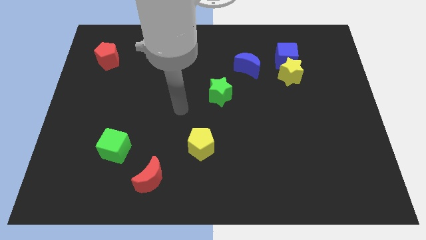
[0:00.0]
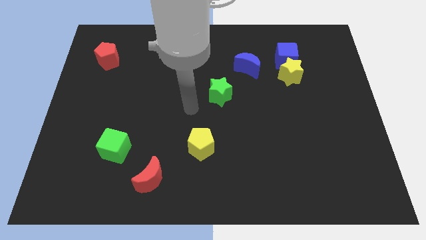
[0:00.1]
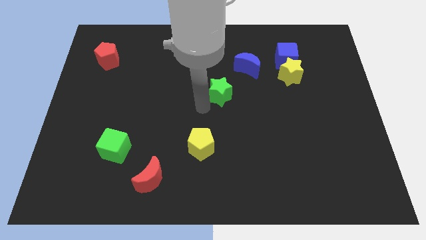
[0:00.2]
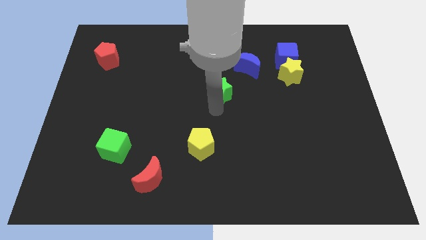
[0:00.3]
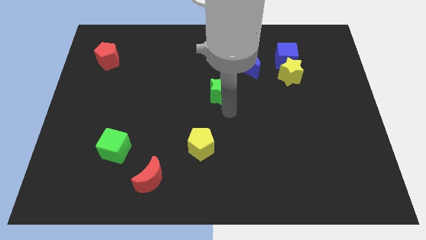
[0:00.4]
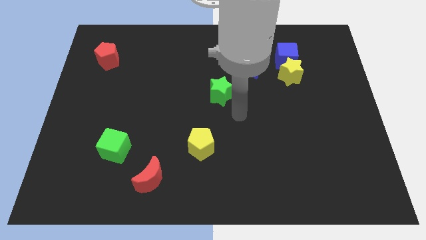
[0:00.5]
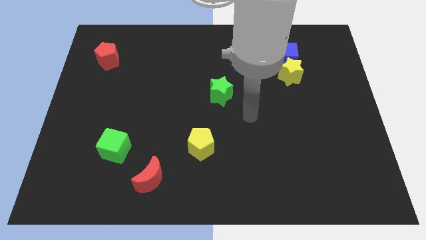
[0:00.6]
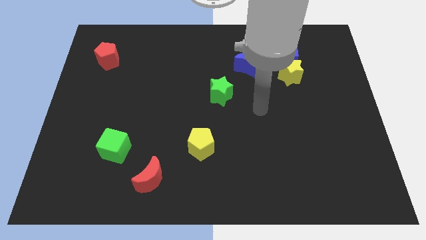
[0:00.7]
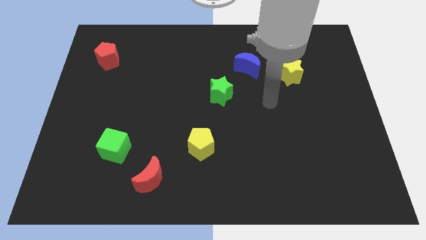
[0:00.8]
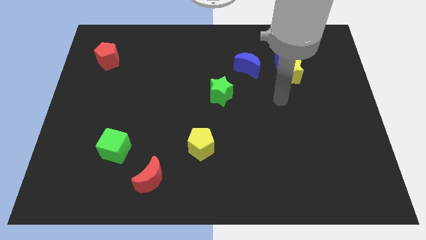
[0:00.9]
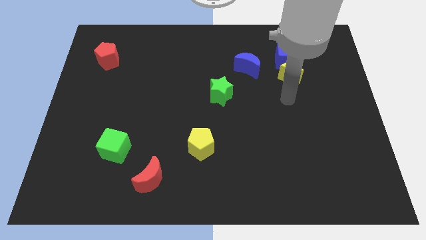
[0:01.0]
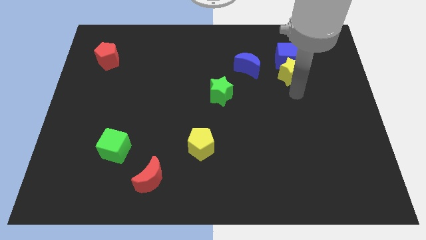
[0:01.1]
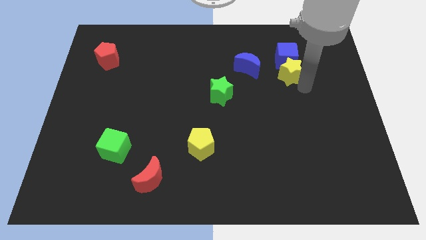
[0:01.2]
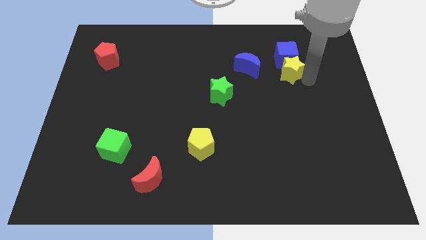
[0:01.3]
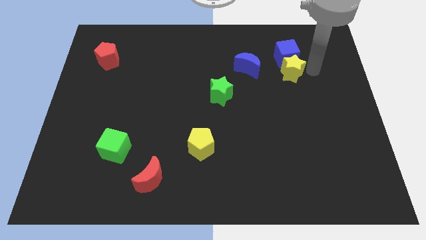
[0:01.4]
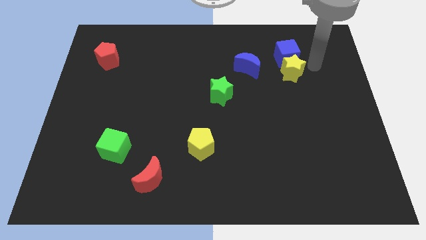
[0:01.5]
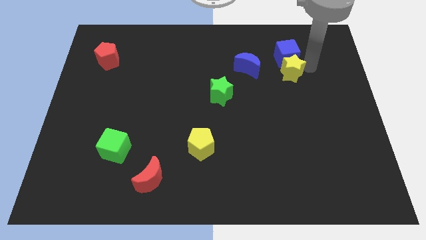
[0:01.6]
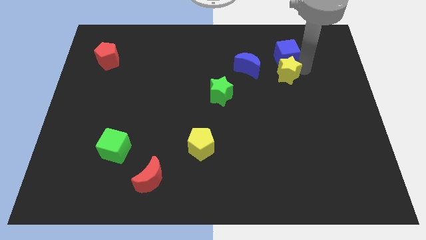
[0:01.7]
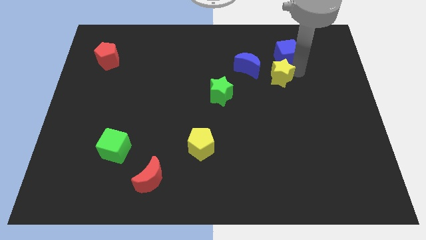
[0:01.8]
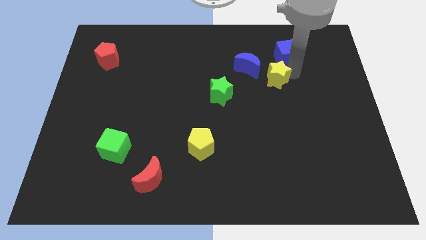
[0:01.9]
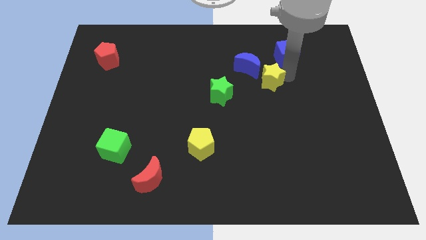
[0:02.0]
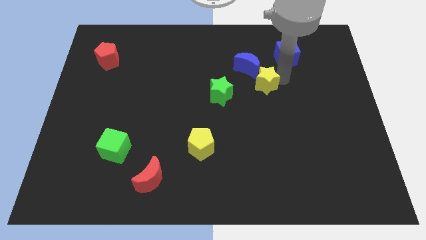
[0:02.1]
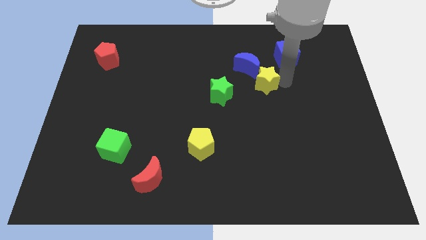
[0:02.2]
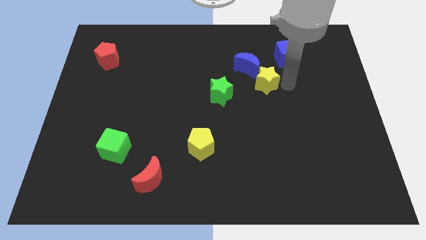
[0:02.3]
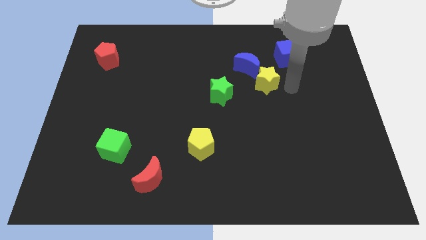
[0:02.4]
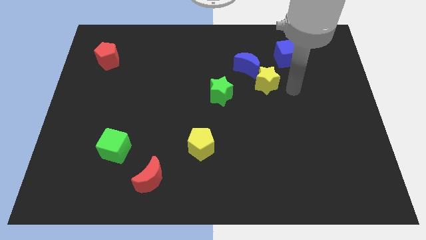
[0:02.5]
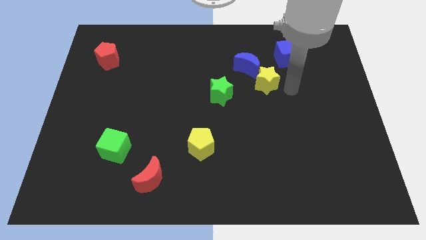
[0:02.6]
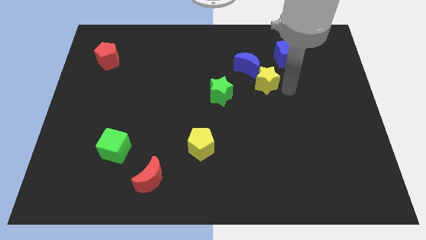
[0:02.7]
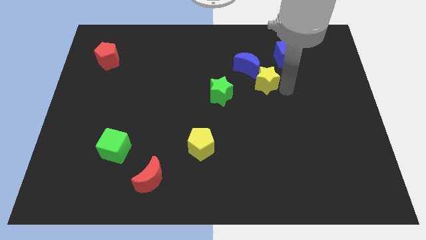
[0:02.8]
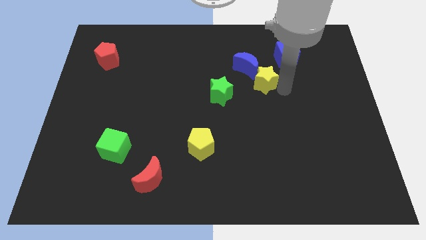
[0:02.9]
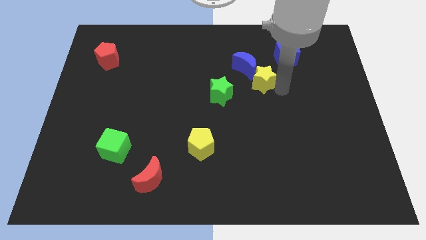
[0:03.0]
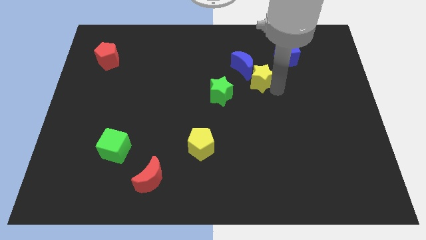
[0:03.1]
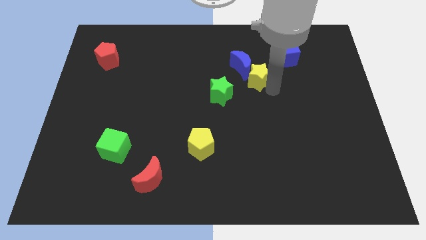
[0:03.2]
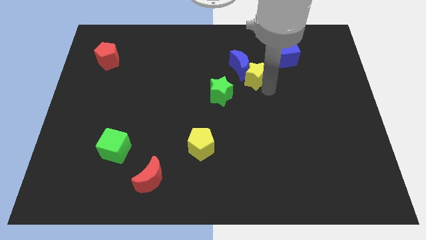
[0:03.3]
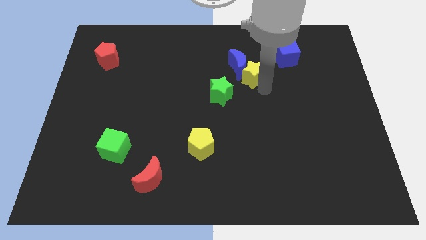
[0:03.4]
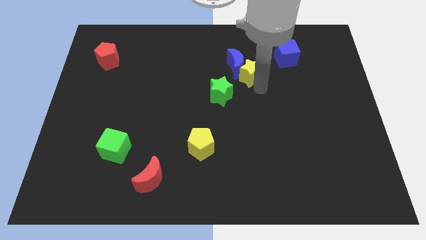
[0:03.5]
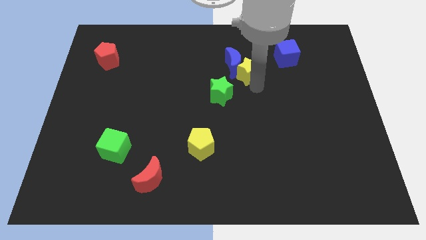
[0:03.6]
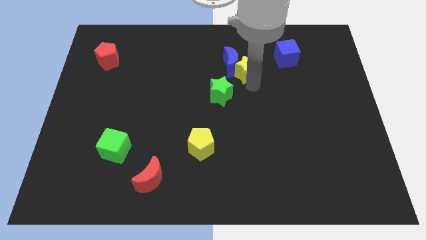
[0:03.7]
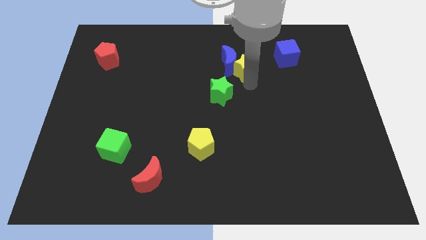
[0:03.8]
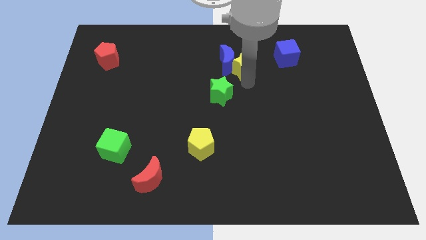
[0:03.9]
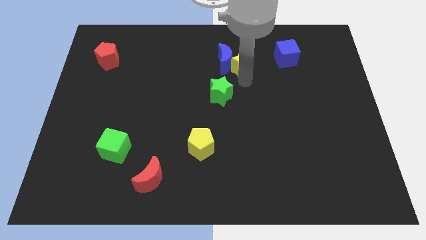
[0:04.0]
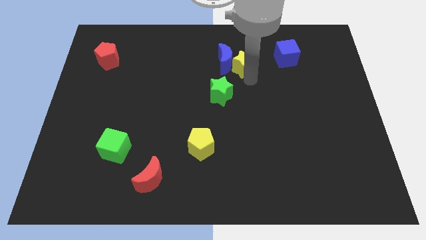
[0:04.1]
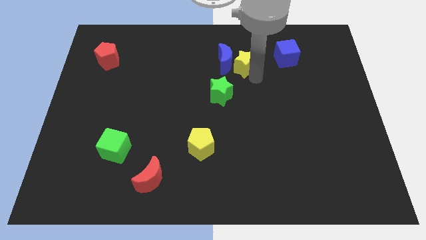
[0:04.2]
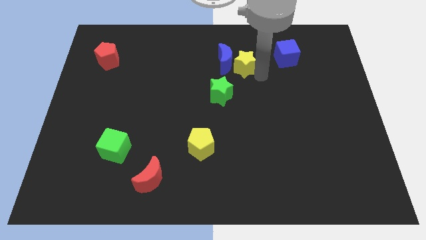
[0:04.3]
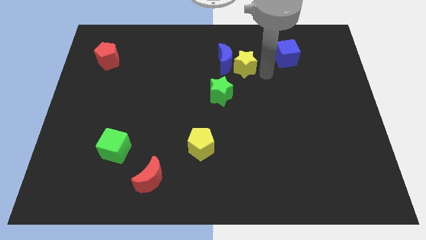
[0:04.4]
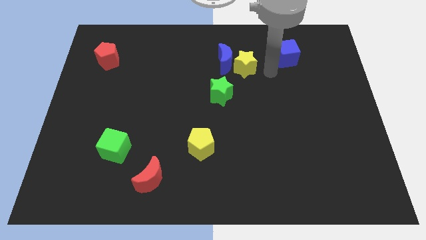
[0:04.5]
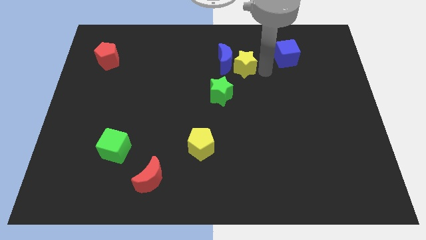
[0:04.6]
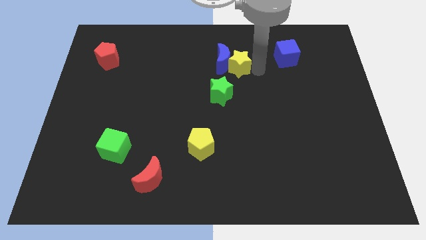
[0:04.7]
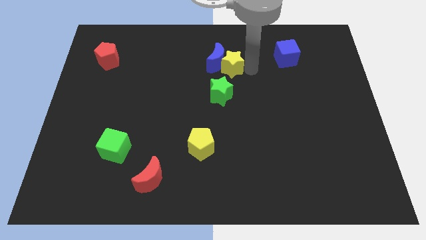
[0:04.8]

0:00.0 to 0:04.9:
move the yellow star to the top side of the green star

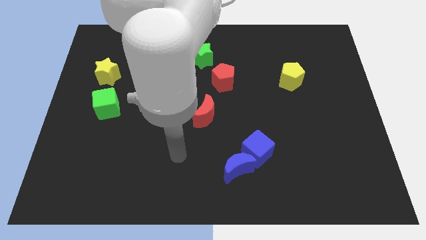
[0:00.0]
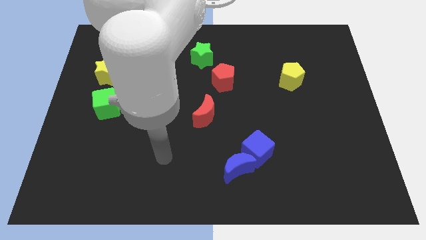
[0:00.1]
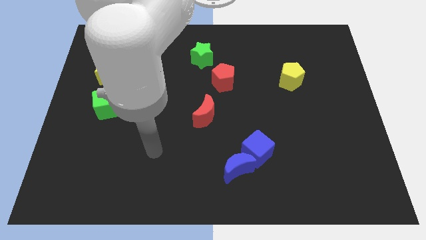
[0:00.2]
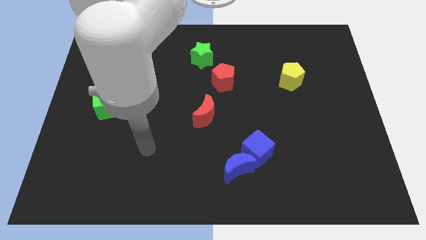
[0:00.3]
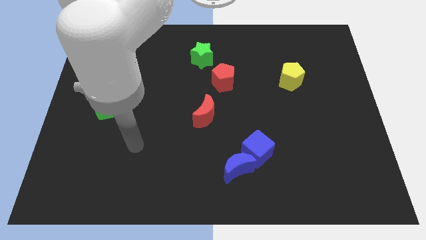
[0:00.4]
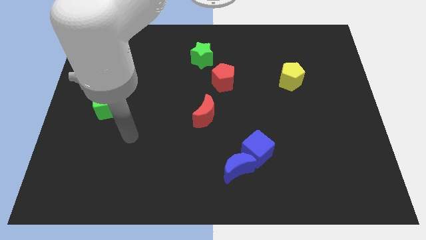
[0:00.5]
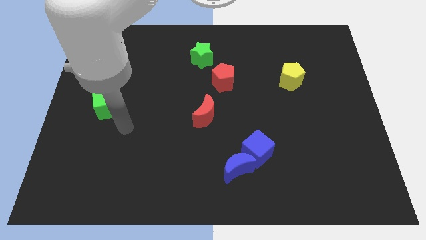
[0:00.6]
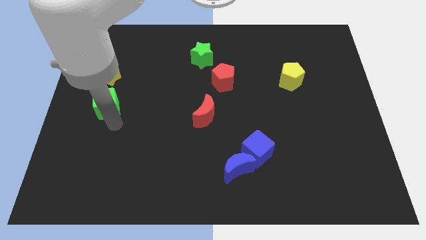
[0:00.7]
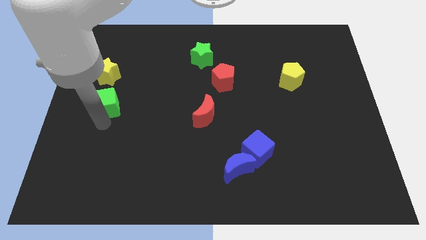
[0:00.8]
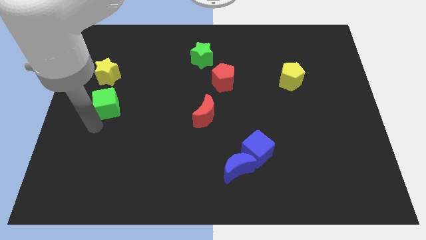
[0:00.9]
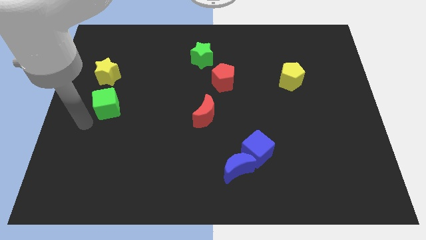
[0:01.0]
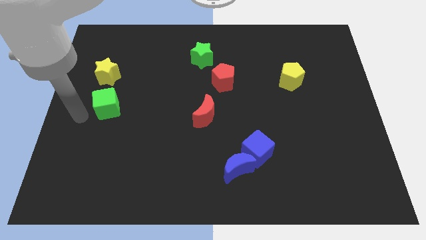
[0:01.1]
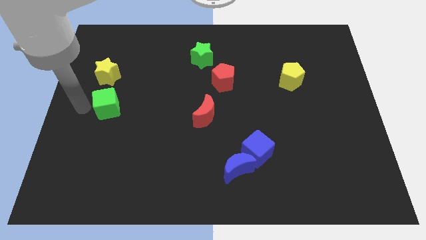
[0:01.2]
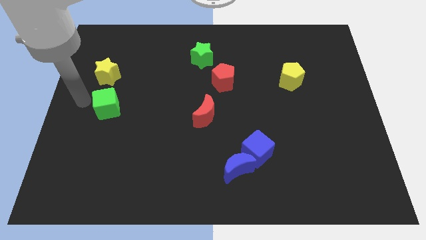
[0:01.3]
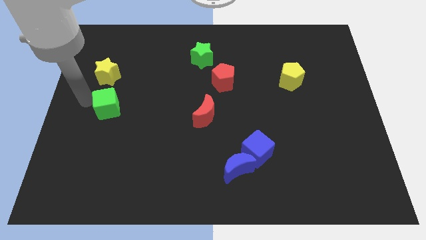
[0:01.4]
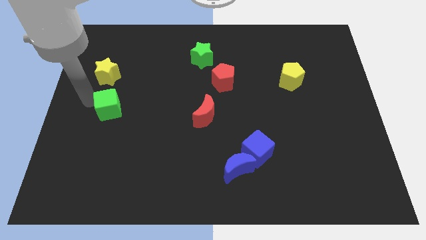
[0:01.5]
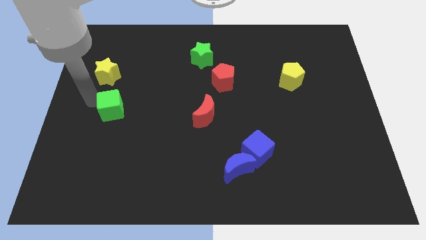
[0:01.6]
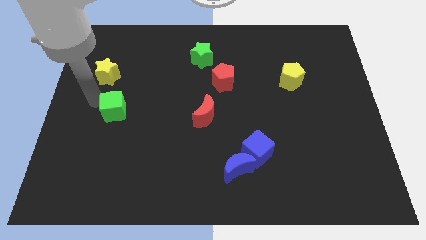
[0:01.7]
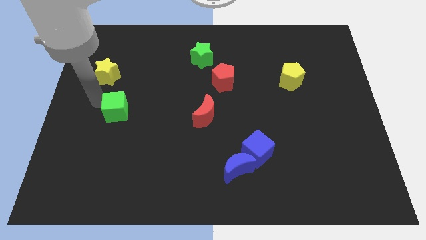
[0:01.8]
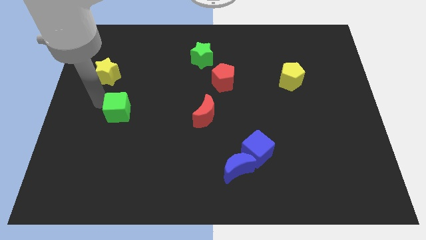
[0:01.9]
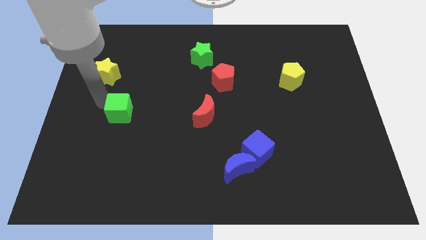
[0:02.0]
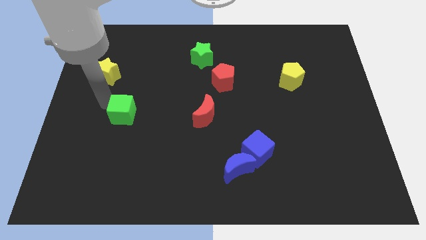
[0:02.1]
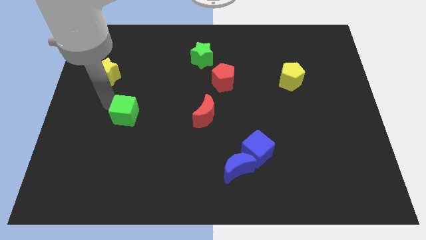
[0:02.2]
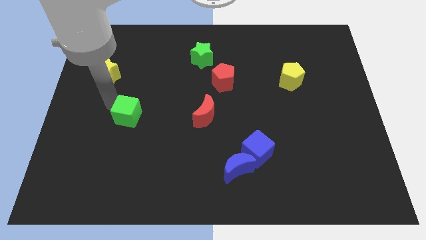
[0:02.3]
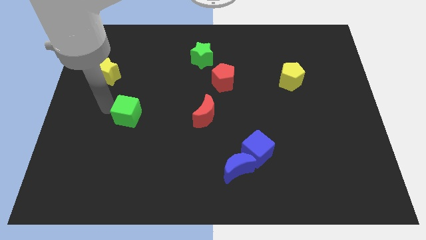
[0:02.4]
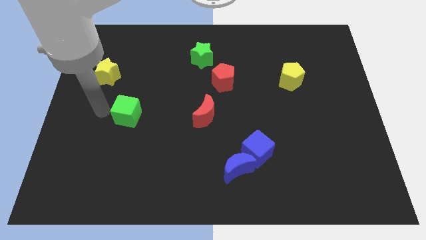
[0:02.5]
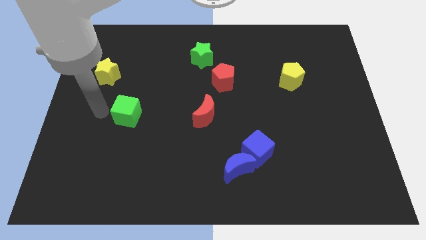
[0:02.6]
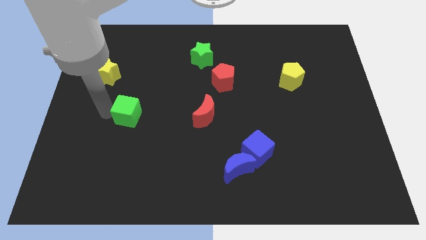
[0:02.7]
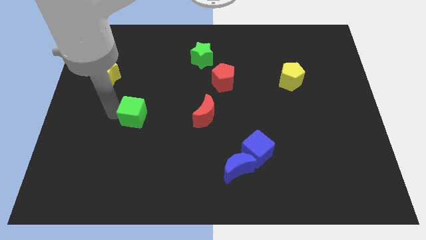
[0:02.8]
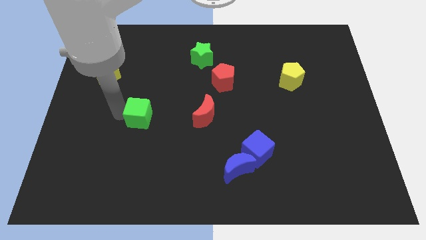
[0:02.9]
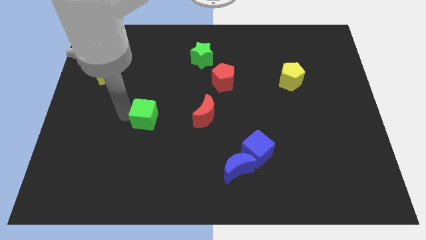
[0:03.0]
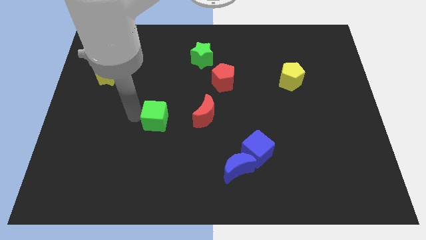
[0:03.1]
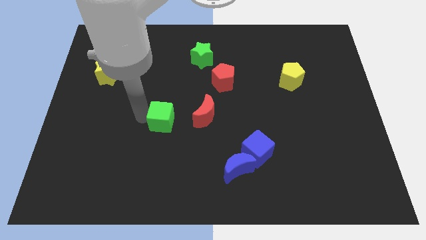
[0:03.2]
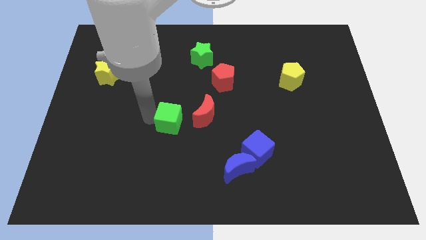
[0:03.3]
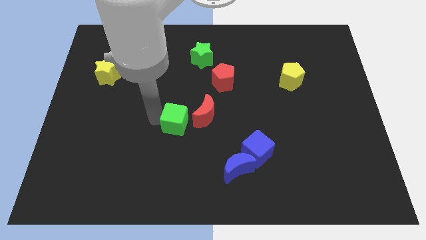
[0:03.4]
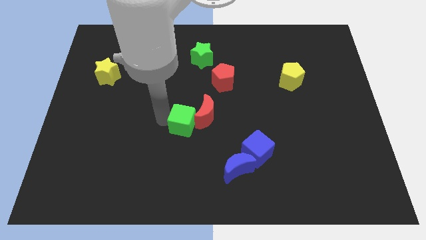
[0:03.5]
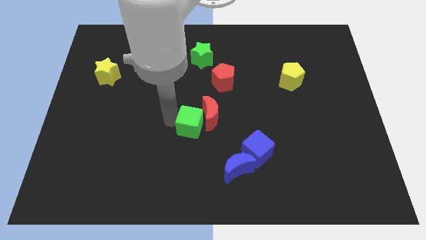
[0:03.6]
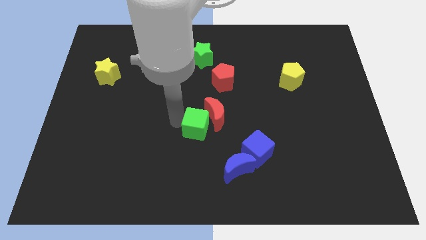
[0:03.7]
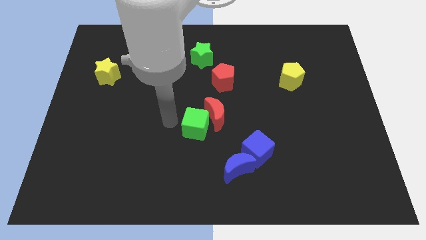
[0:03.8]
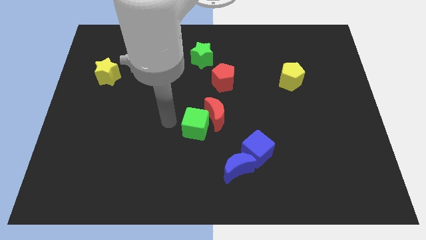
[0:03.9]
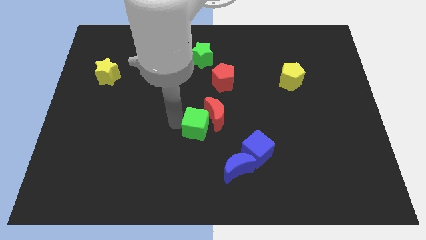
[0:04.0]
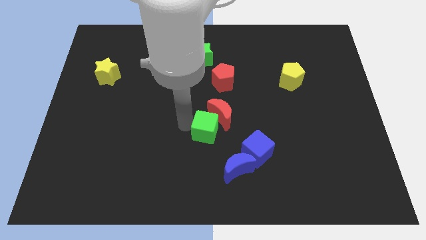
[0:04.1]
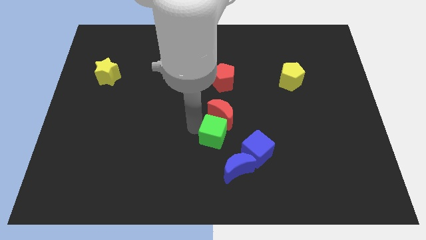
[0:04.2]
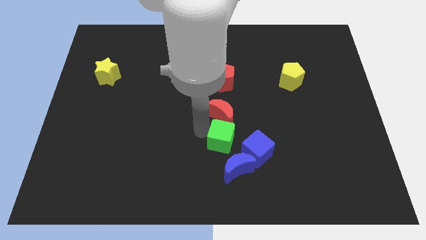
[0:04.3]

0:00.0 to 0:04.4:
push the green cube diagonally down and to the right of the red moon
